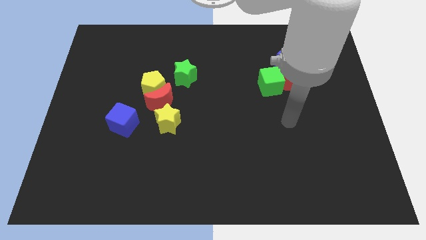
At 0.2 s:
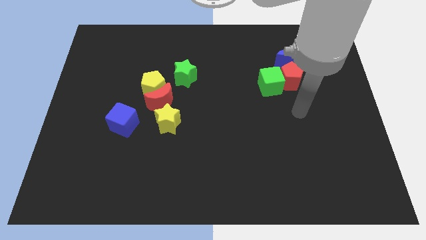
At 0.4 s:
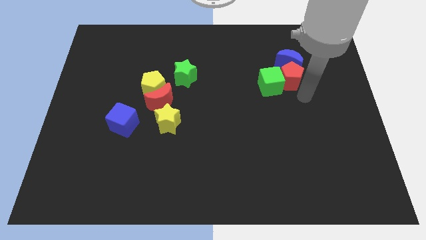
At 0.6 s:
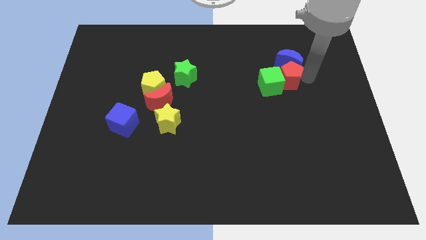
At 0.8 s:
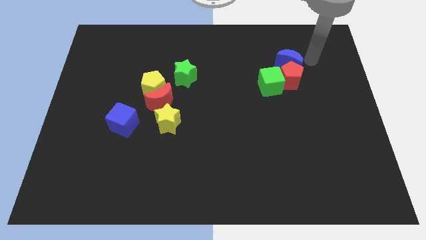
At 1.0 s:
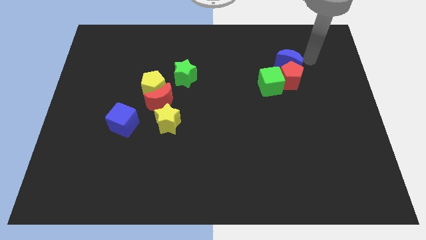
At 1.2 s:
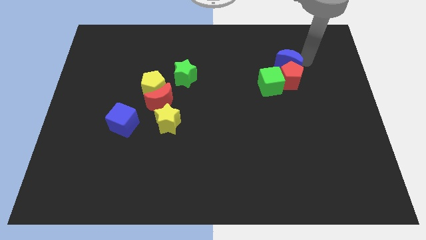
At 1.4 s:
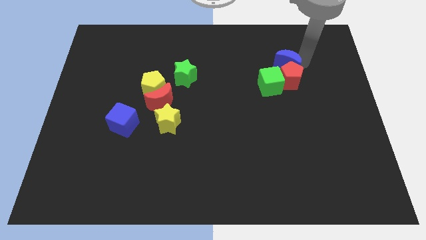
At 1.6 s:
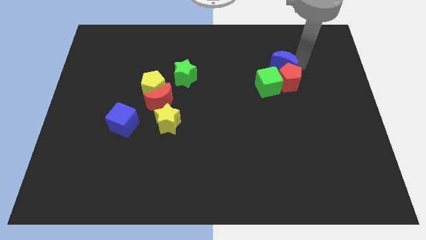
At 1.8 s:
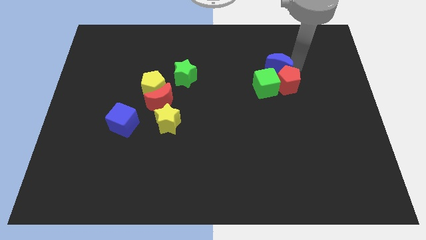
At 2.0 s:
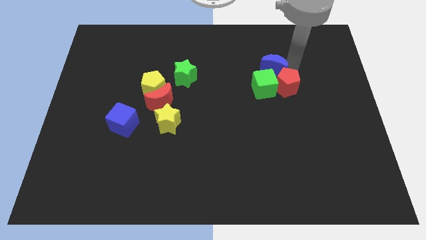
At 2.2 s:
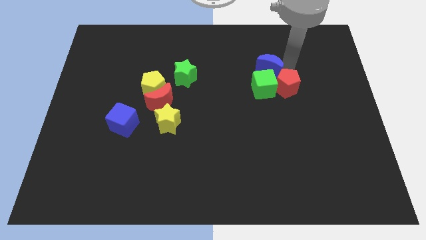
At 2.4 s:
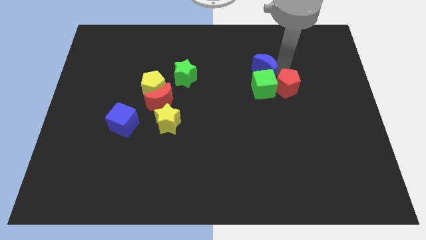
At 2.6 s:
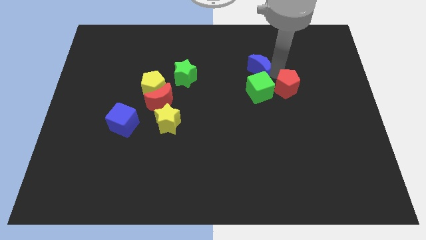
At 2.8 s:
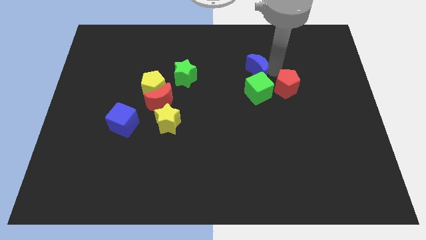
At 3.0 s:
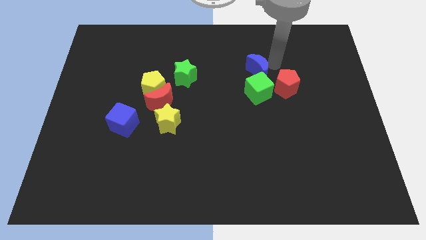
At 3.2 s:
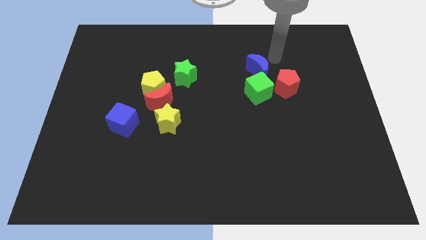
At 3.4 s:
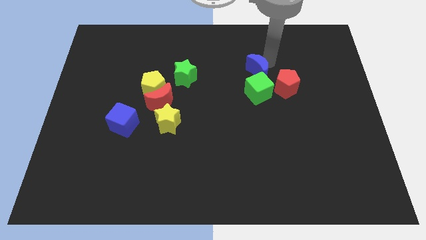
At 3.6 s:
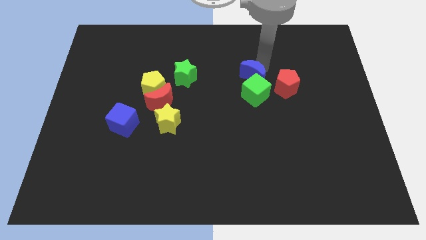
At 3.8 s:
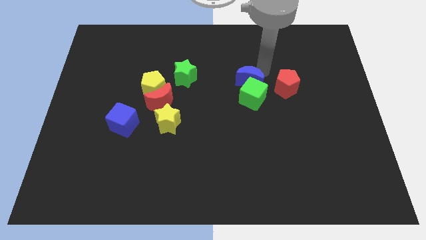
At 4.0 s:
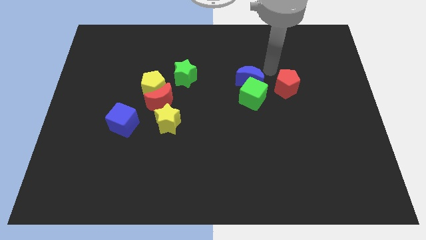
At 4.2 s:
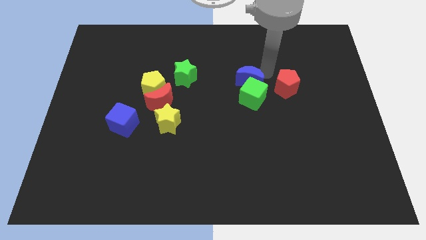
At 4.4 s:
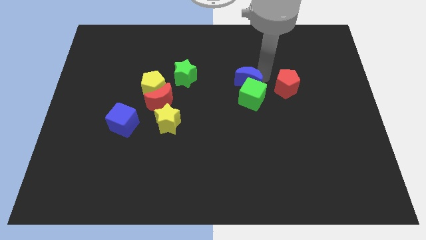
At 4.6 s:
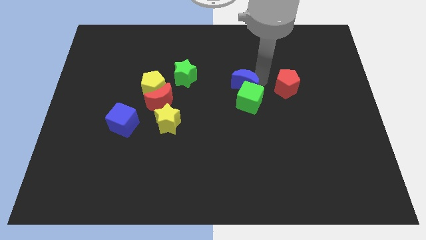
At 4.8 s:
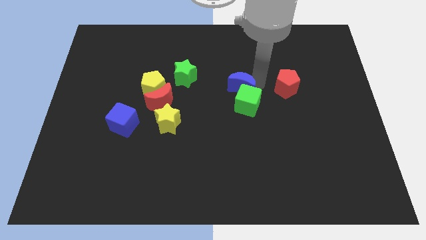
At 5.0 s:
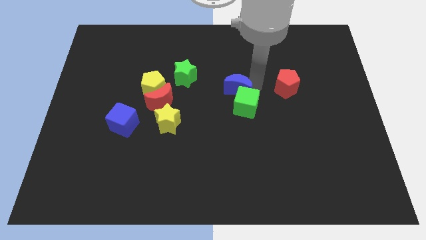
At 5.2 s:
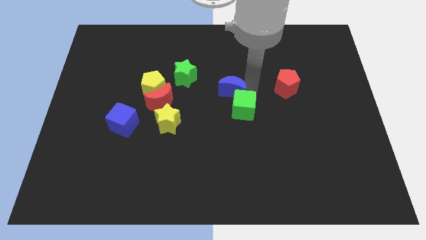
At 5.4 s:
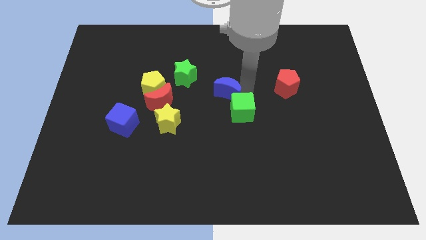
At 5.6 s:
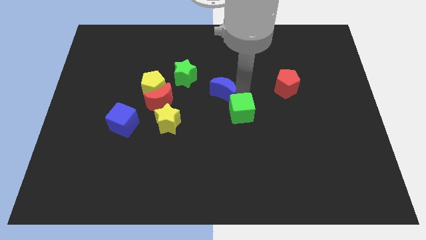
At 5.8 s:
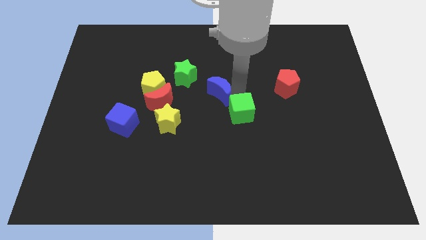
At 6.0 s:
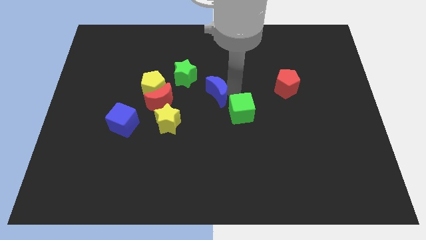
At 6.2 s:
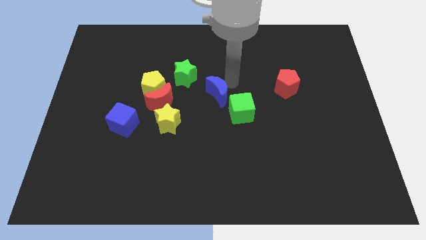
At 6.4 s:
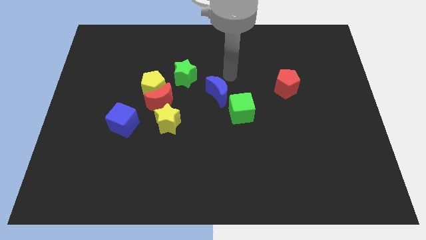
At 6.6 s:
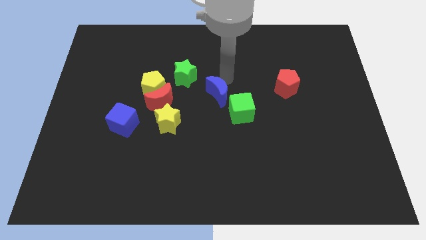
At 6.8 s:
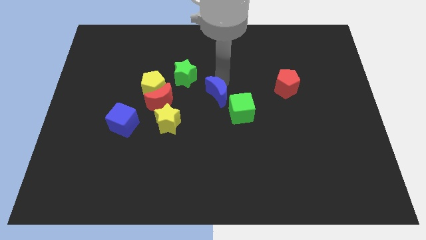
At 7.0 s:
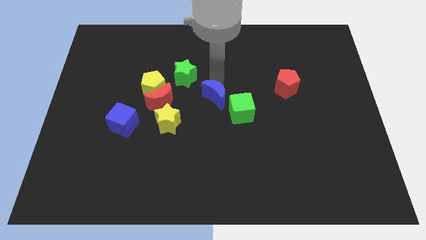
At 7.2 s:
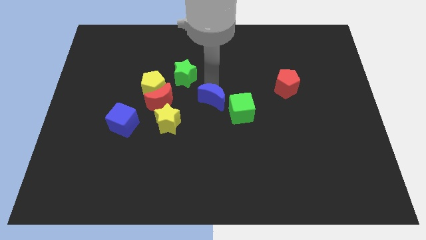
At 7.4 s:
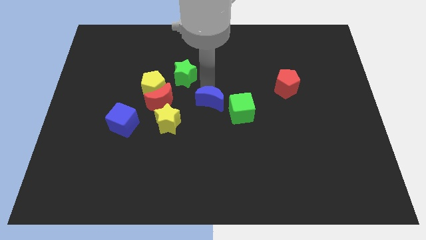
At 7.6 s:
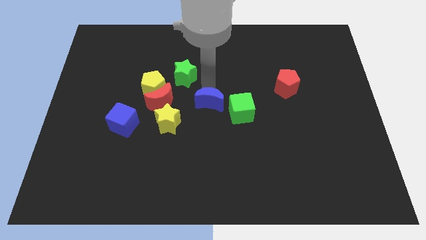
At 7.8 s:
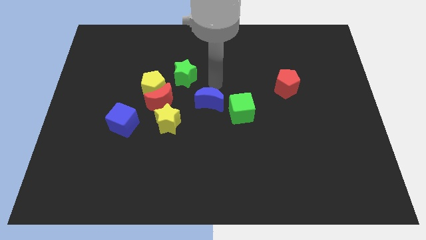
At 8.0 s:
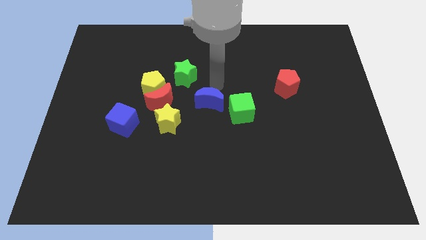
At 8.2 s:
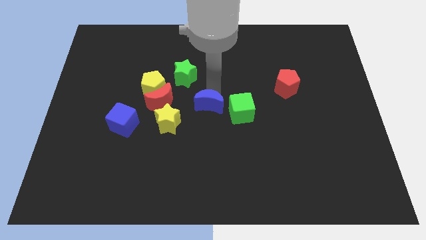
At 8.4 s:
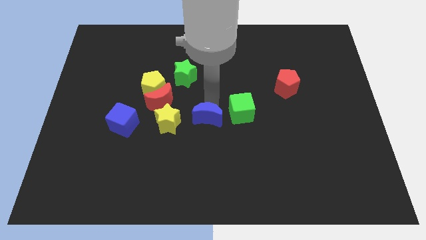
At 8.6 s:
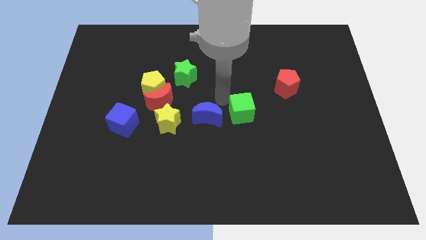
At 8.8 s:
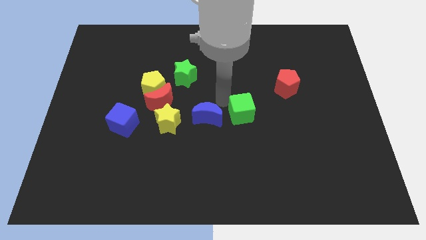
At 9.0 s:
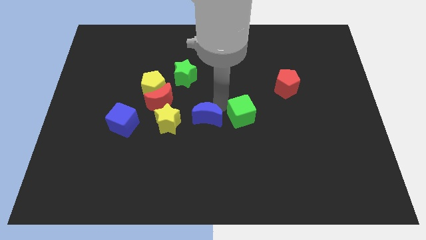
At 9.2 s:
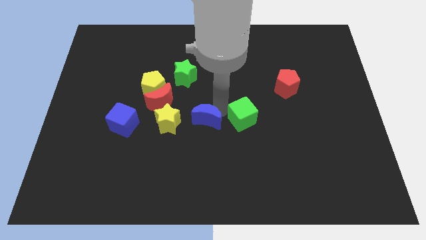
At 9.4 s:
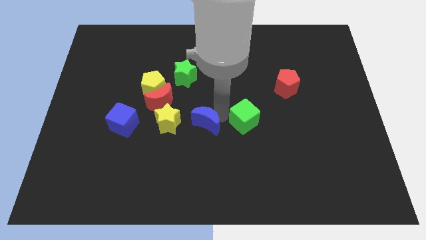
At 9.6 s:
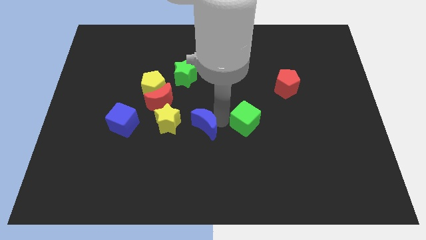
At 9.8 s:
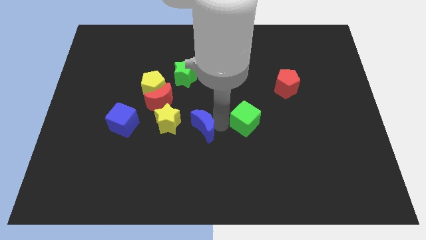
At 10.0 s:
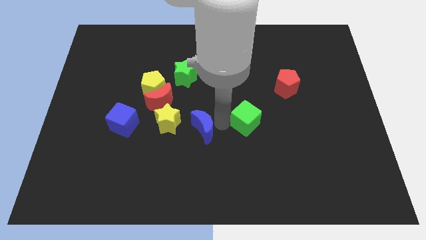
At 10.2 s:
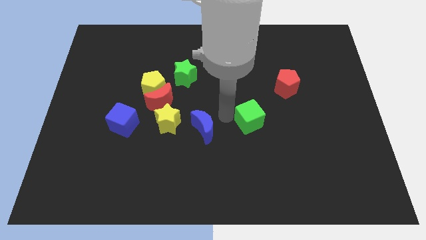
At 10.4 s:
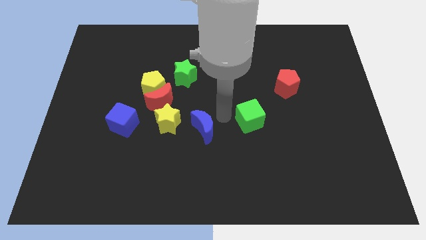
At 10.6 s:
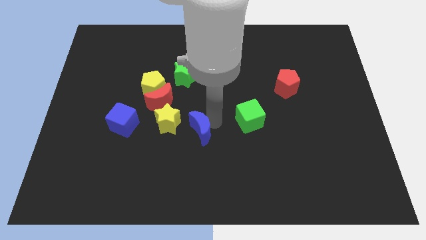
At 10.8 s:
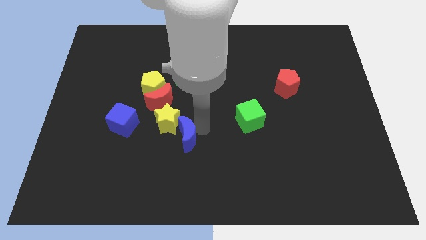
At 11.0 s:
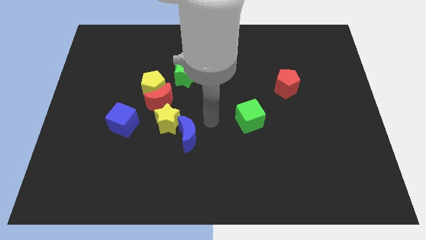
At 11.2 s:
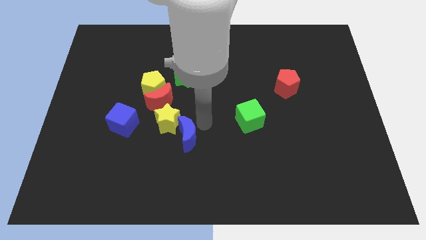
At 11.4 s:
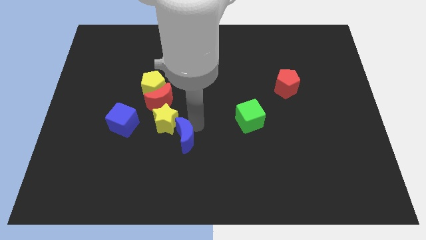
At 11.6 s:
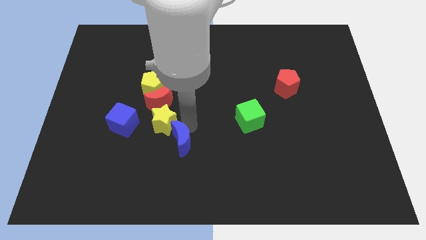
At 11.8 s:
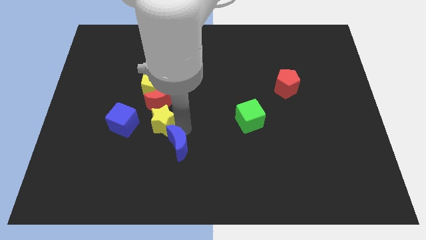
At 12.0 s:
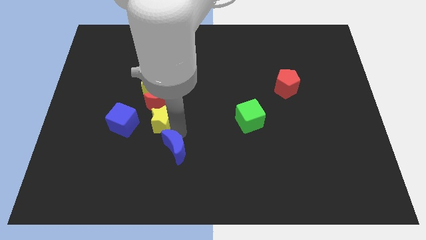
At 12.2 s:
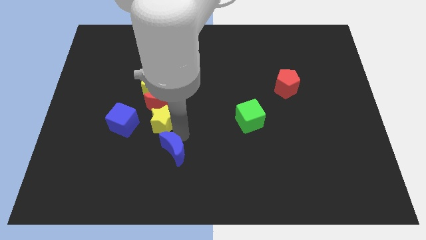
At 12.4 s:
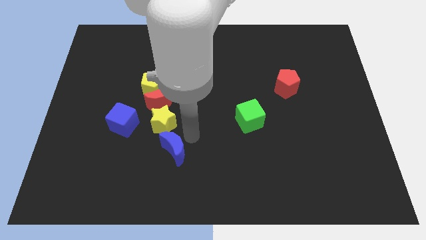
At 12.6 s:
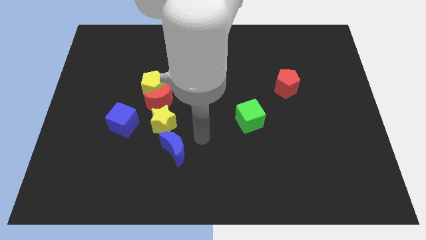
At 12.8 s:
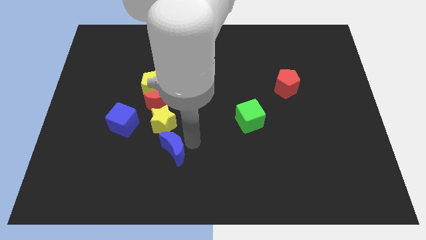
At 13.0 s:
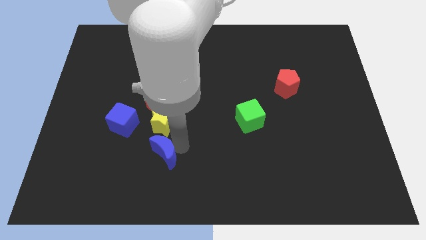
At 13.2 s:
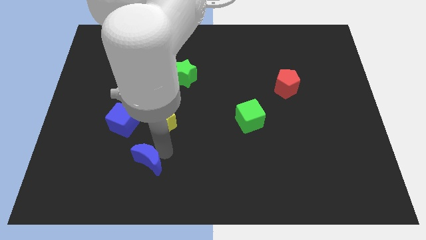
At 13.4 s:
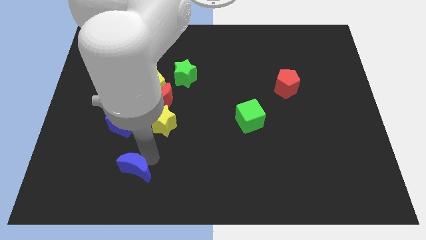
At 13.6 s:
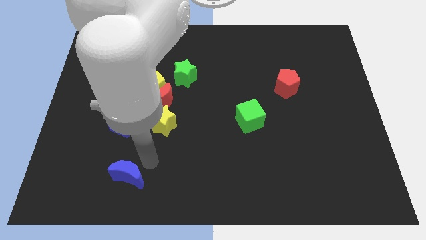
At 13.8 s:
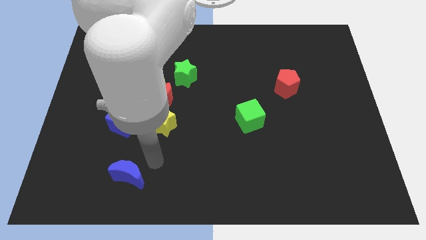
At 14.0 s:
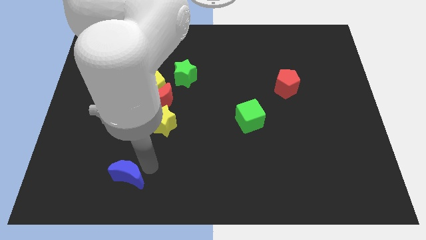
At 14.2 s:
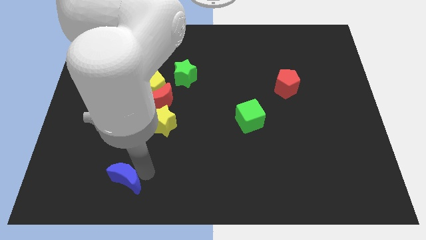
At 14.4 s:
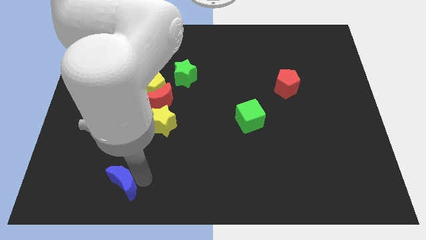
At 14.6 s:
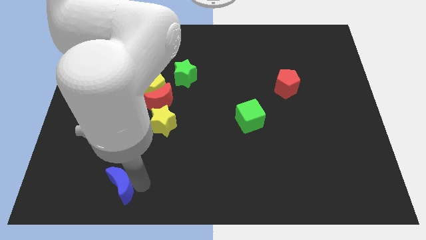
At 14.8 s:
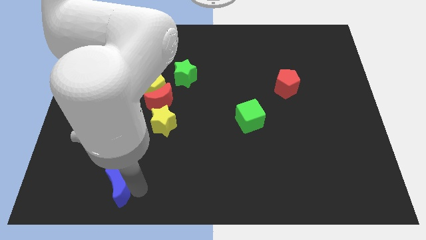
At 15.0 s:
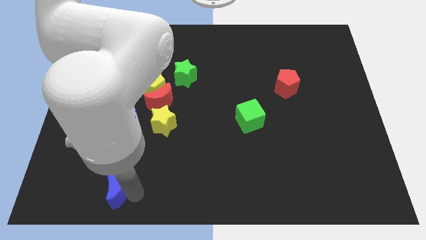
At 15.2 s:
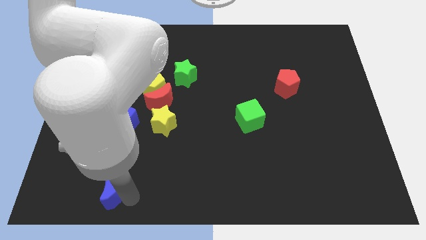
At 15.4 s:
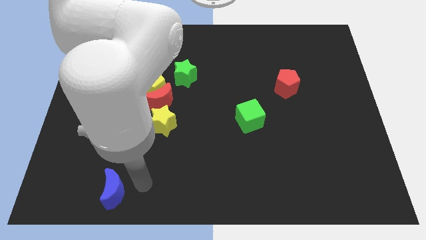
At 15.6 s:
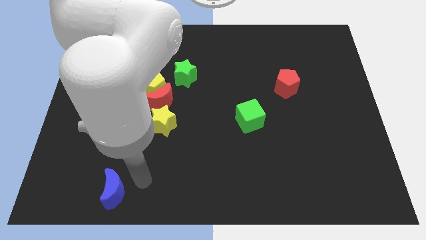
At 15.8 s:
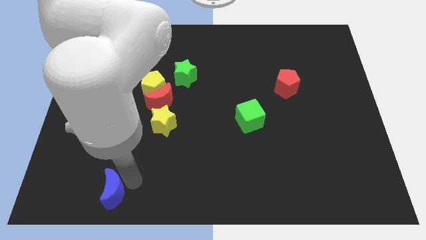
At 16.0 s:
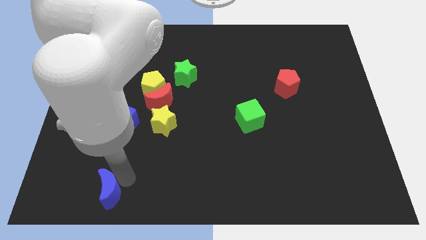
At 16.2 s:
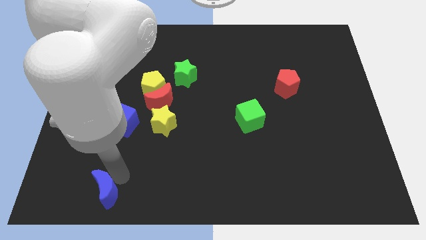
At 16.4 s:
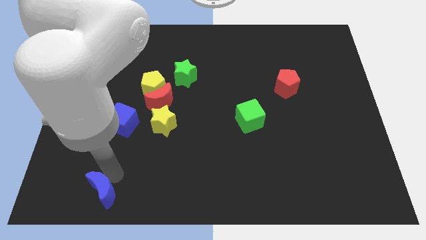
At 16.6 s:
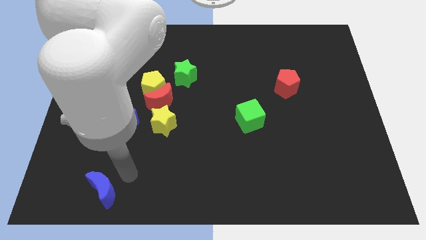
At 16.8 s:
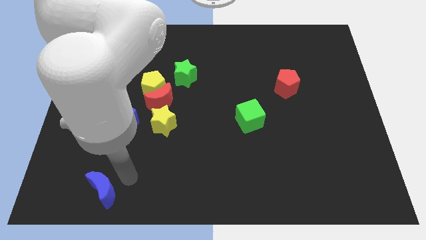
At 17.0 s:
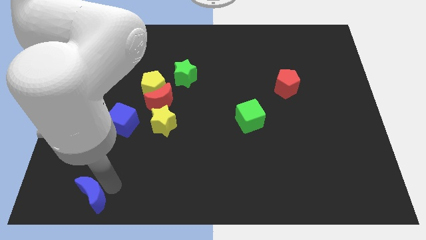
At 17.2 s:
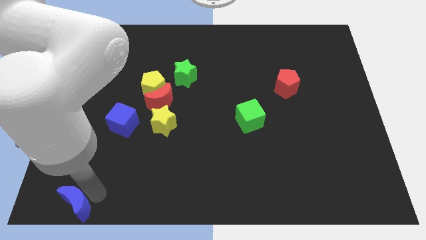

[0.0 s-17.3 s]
push the blue moon to the lower left corner
